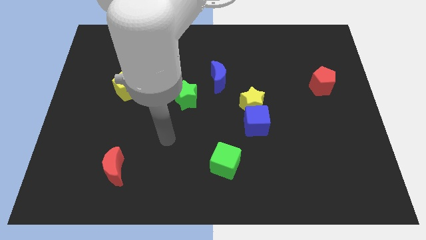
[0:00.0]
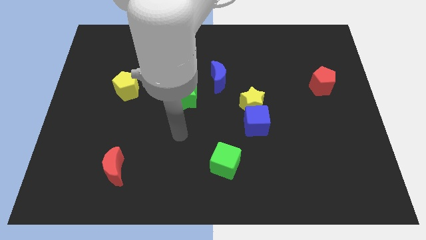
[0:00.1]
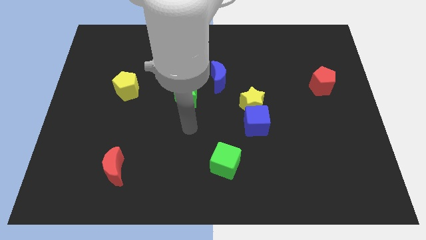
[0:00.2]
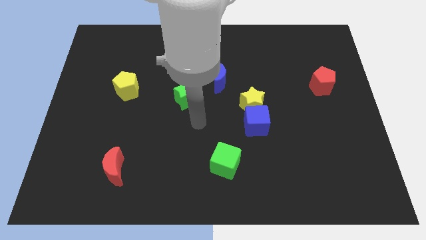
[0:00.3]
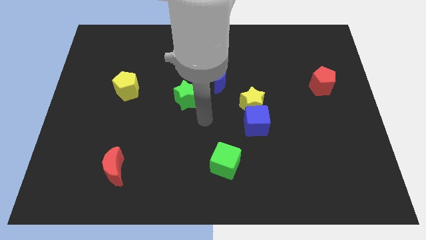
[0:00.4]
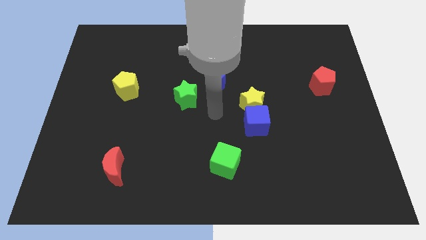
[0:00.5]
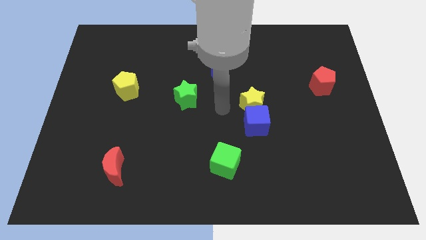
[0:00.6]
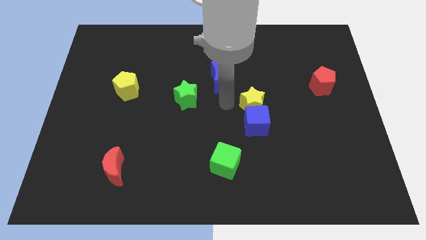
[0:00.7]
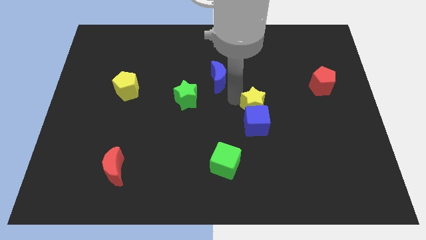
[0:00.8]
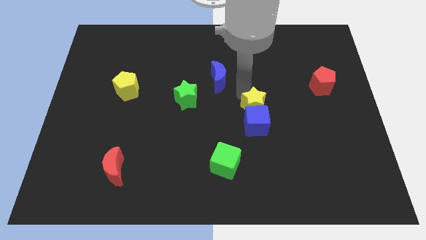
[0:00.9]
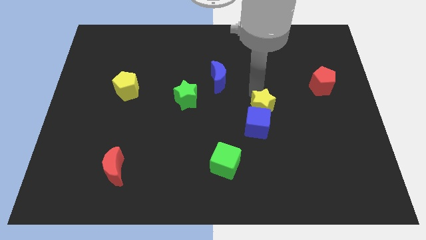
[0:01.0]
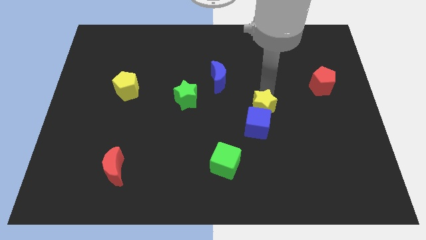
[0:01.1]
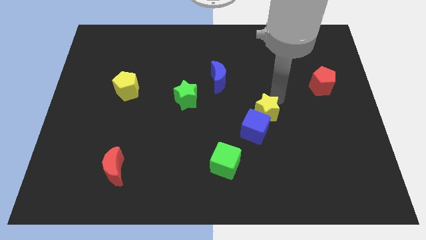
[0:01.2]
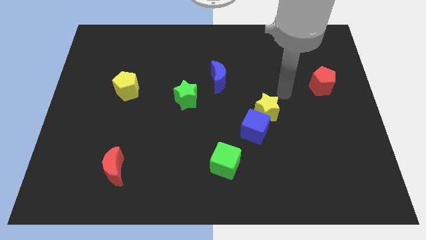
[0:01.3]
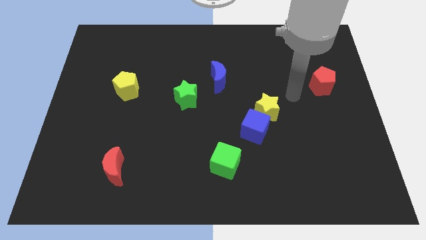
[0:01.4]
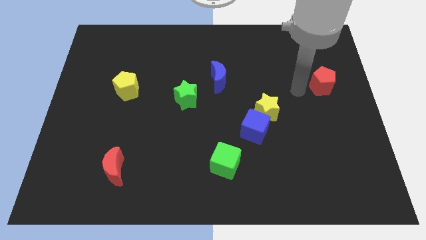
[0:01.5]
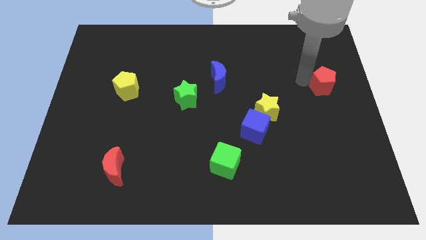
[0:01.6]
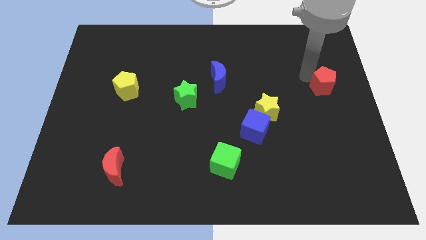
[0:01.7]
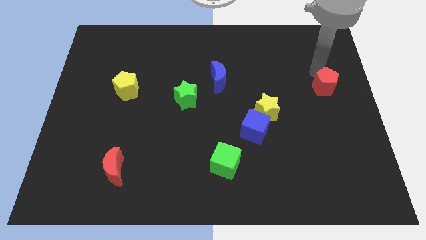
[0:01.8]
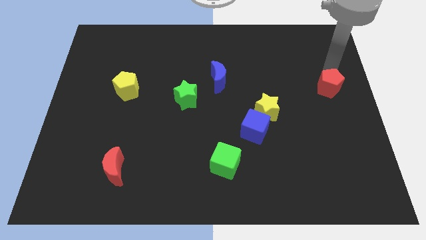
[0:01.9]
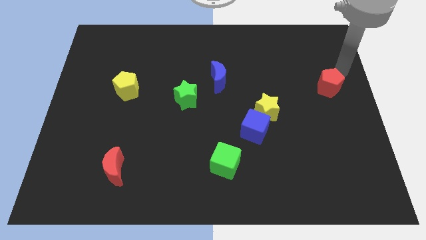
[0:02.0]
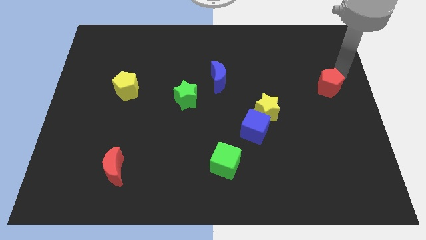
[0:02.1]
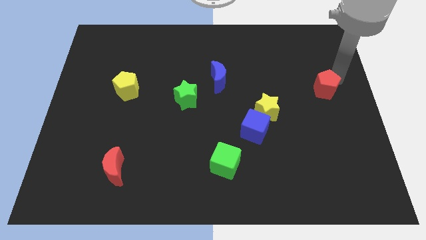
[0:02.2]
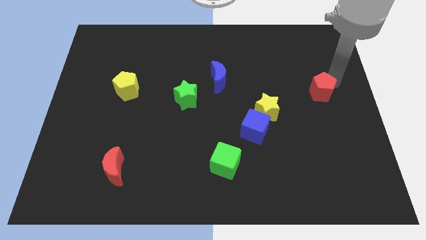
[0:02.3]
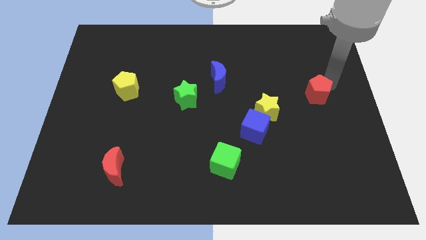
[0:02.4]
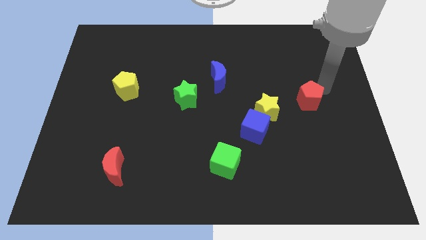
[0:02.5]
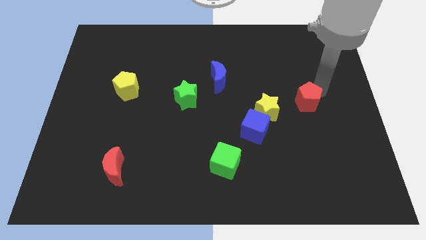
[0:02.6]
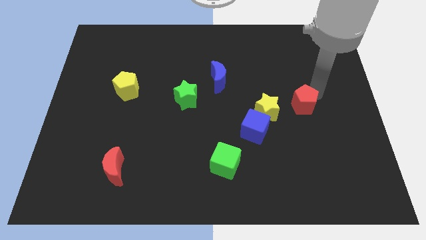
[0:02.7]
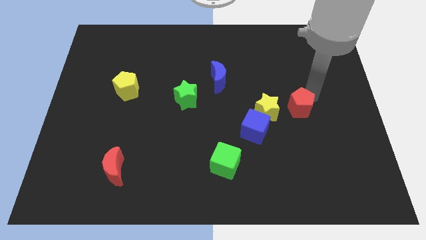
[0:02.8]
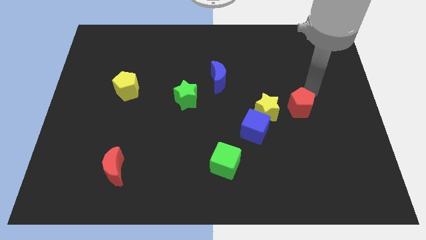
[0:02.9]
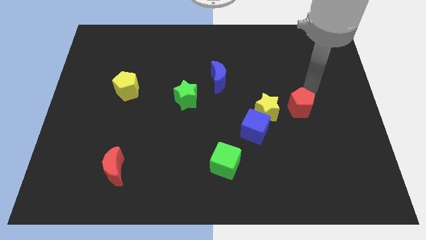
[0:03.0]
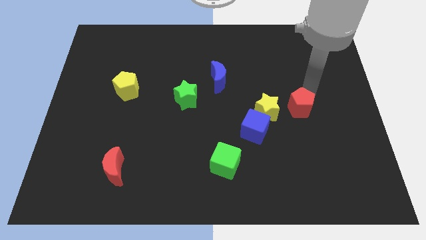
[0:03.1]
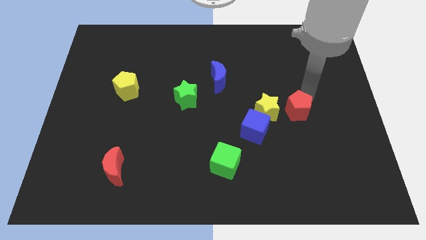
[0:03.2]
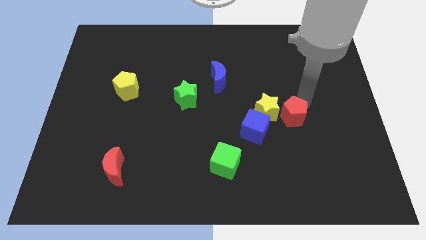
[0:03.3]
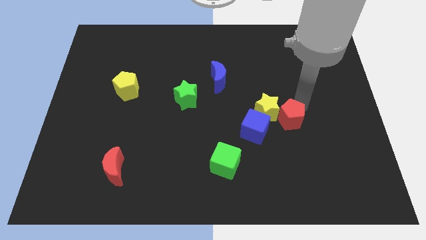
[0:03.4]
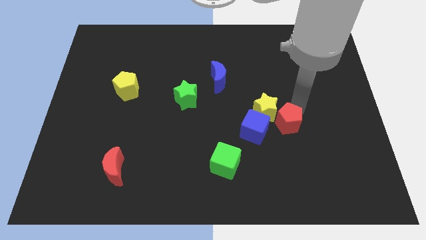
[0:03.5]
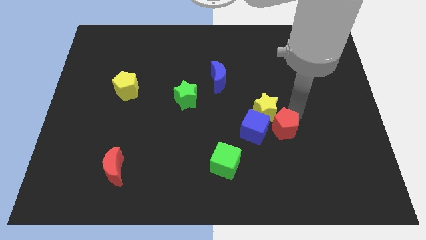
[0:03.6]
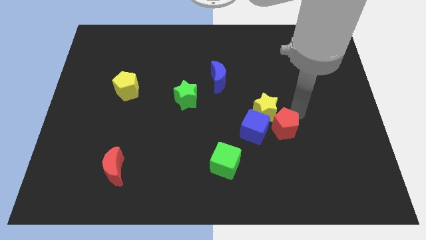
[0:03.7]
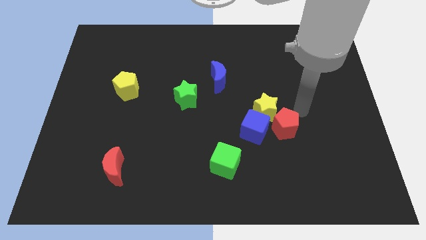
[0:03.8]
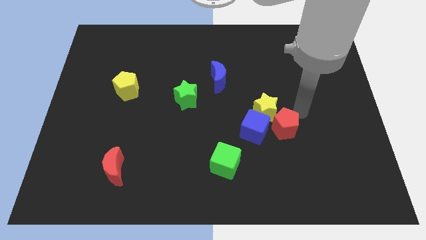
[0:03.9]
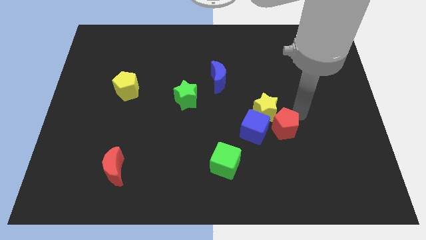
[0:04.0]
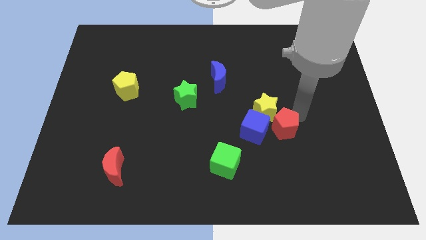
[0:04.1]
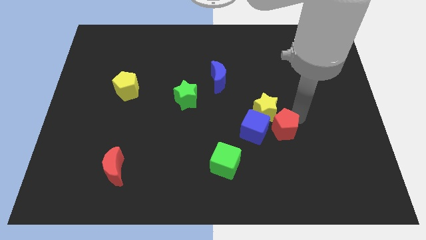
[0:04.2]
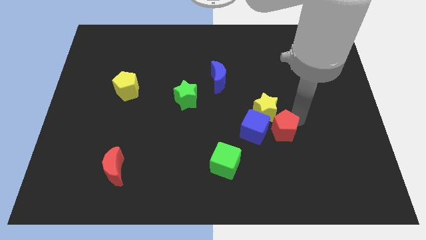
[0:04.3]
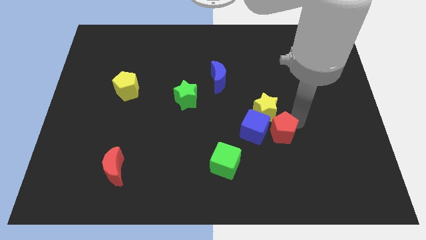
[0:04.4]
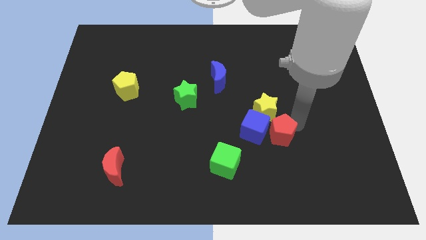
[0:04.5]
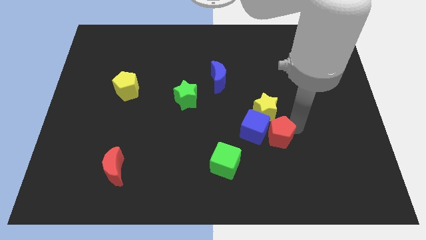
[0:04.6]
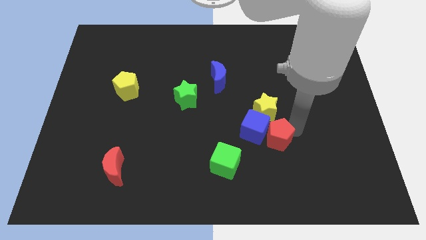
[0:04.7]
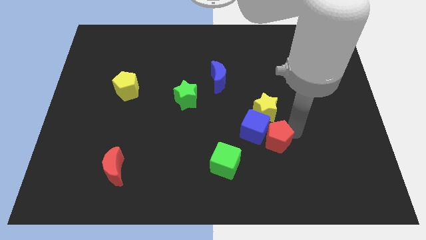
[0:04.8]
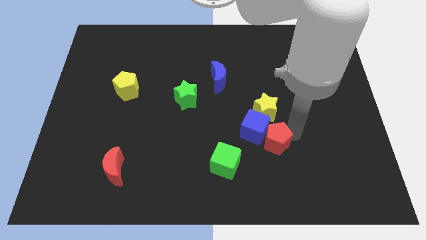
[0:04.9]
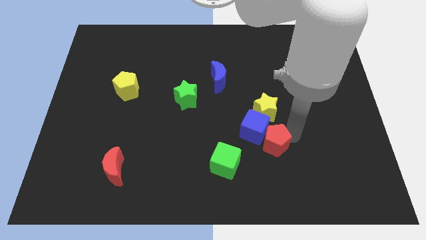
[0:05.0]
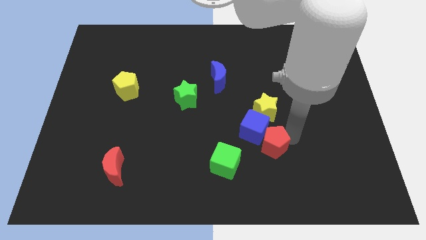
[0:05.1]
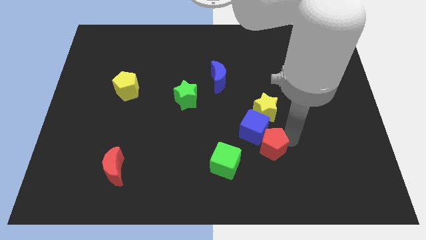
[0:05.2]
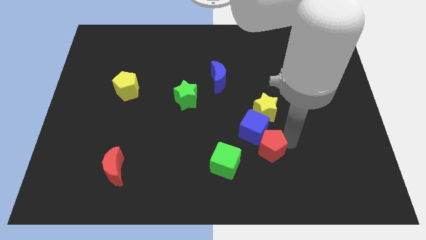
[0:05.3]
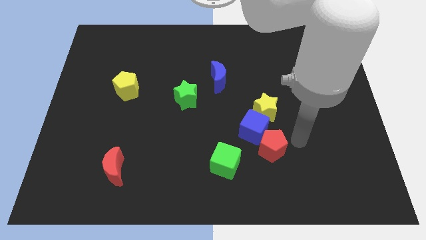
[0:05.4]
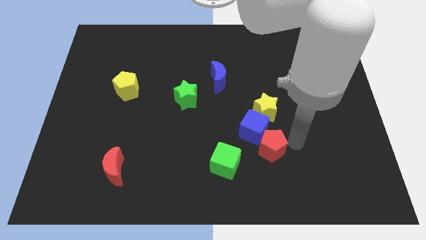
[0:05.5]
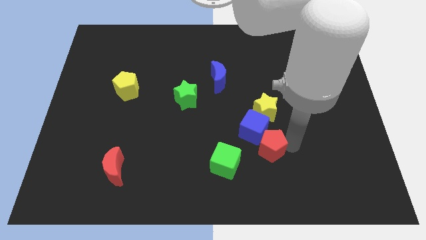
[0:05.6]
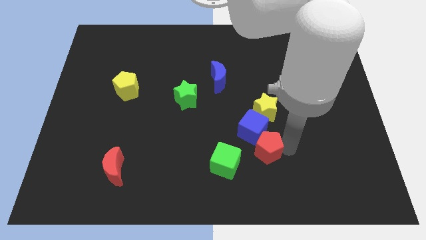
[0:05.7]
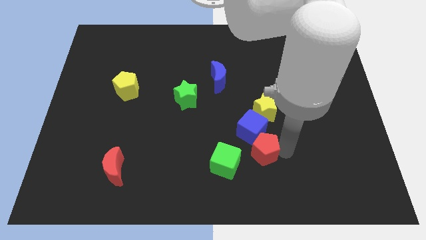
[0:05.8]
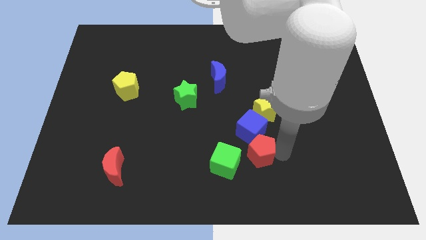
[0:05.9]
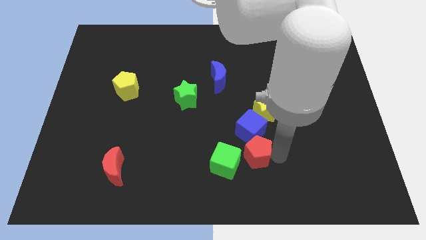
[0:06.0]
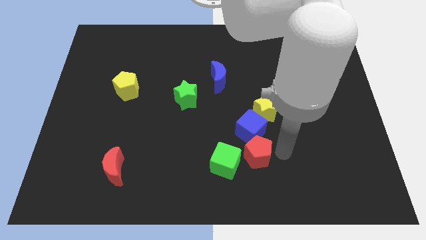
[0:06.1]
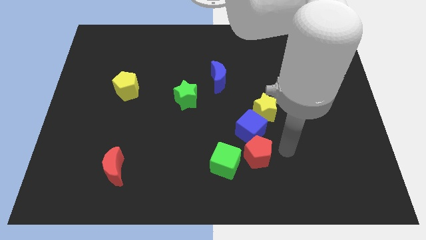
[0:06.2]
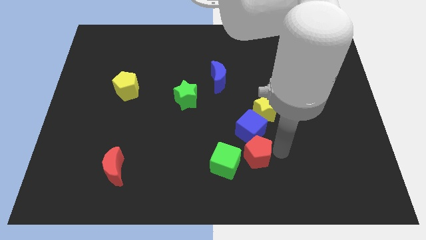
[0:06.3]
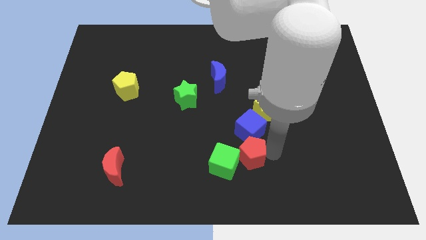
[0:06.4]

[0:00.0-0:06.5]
push the red pentagon next to the green cube

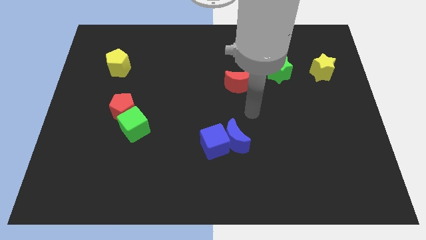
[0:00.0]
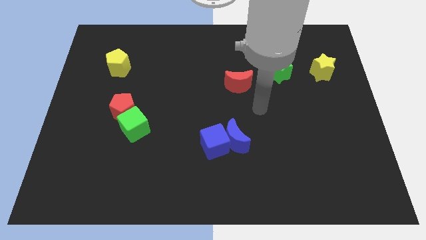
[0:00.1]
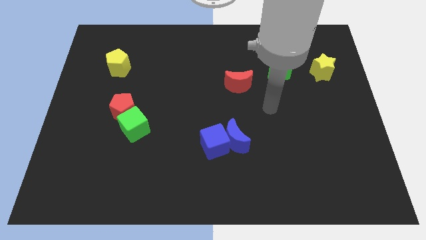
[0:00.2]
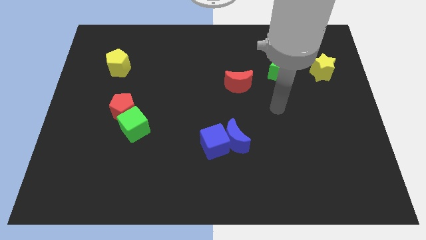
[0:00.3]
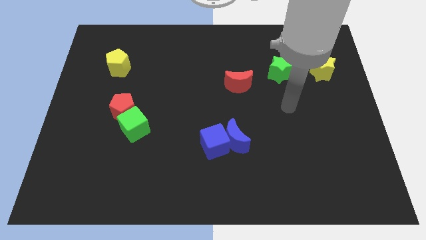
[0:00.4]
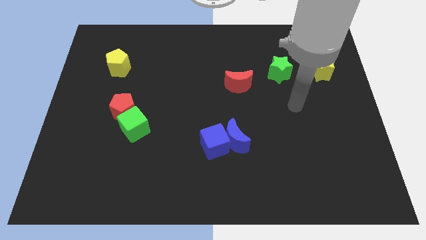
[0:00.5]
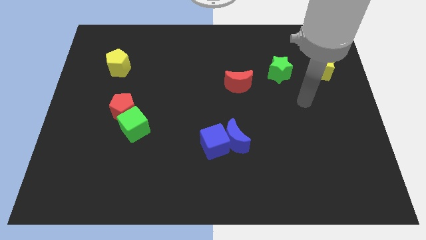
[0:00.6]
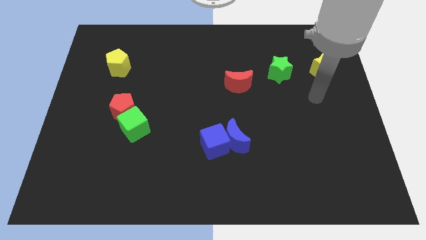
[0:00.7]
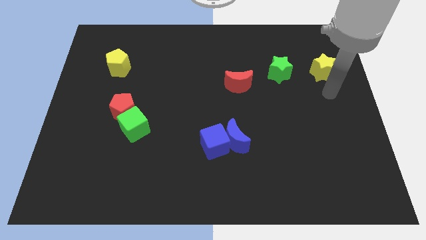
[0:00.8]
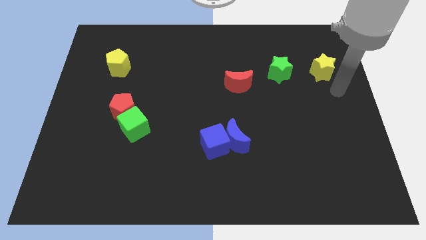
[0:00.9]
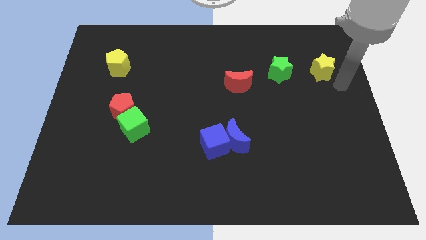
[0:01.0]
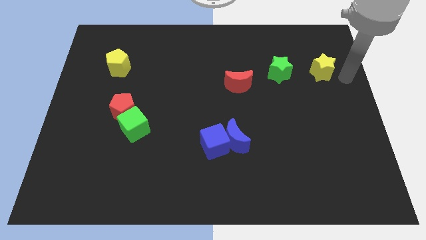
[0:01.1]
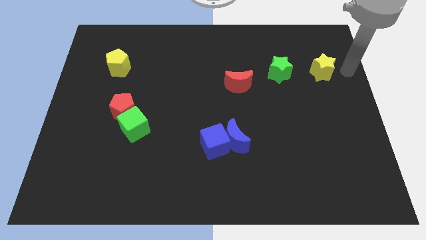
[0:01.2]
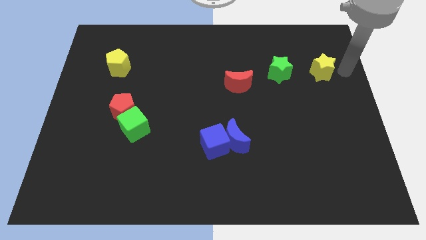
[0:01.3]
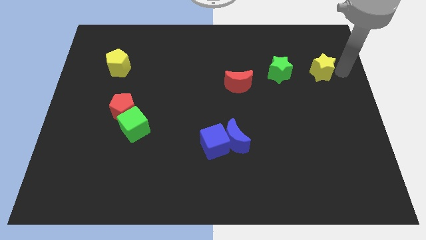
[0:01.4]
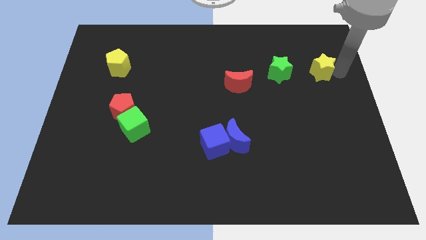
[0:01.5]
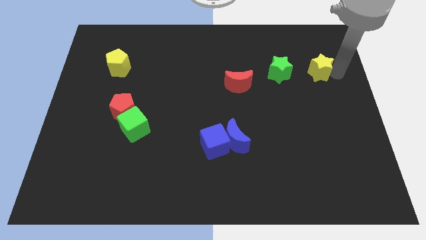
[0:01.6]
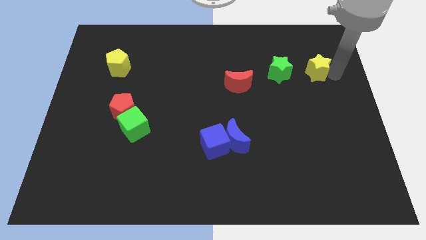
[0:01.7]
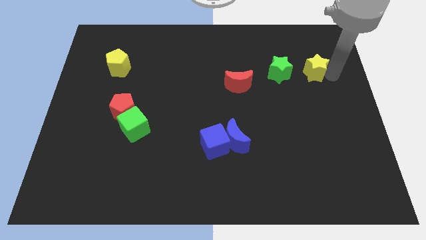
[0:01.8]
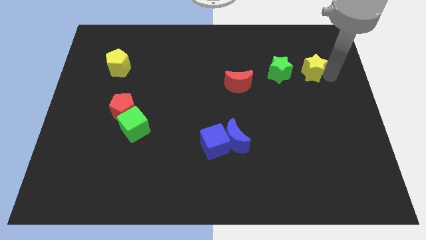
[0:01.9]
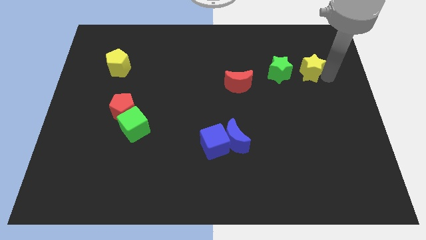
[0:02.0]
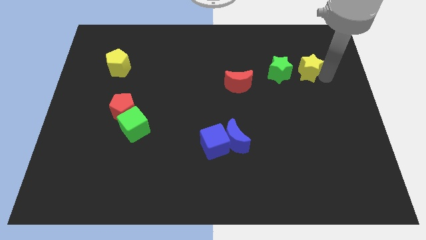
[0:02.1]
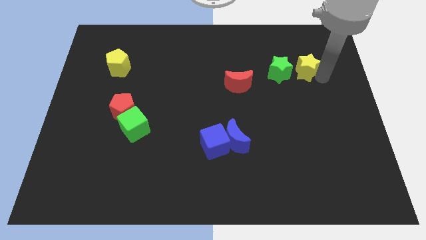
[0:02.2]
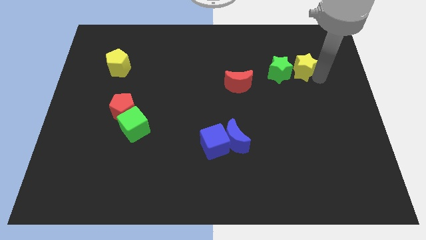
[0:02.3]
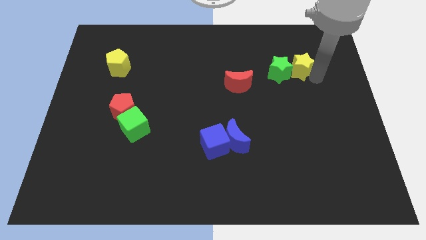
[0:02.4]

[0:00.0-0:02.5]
push the yellow star next to the green star
